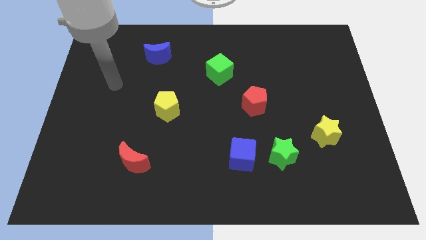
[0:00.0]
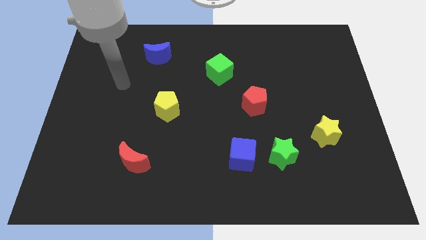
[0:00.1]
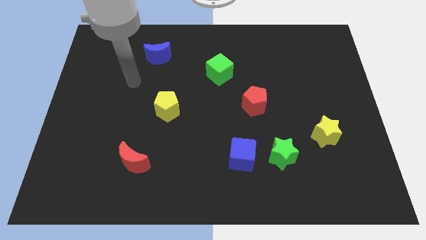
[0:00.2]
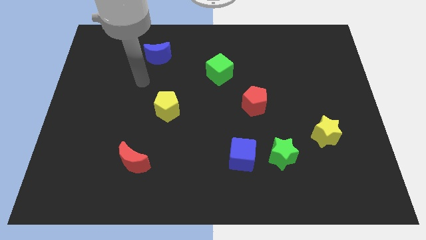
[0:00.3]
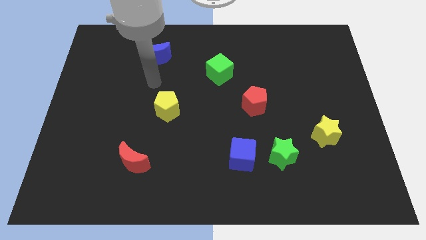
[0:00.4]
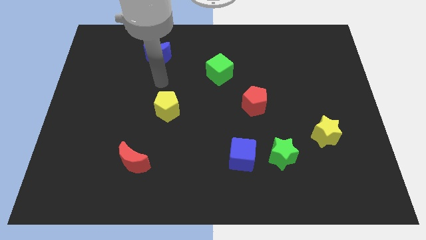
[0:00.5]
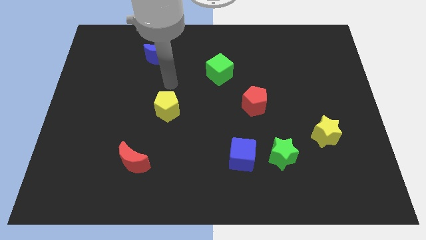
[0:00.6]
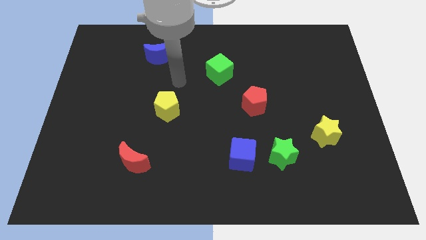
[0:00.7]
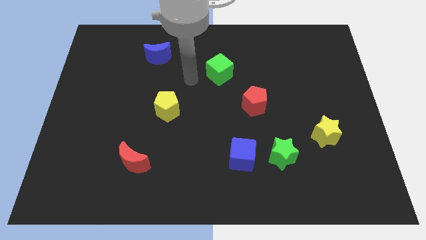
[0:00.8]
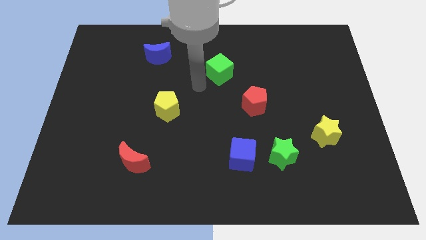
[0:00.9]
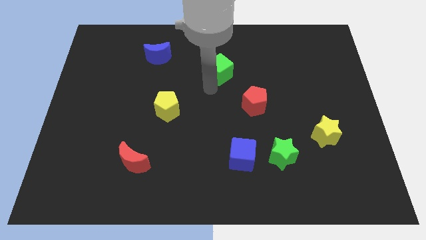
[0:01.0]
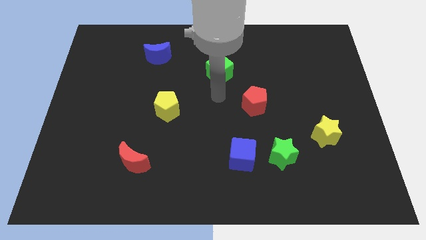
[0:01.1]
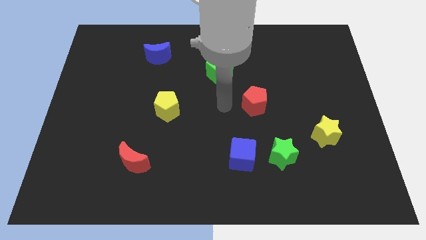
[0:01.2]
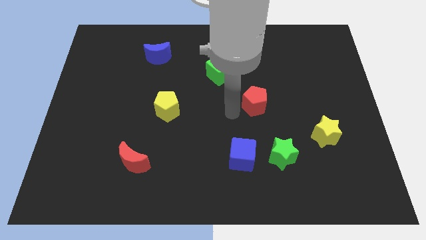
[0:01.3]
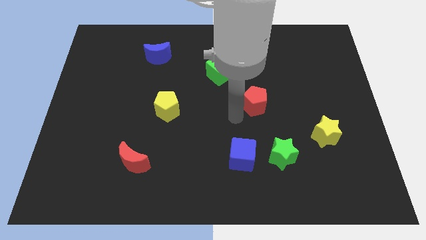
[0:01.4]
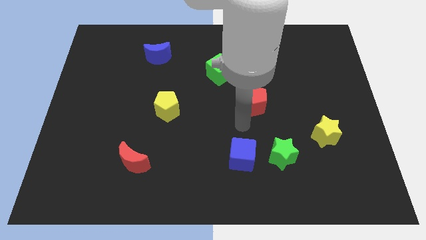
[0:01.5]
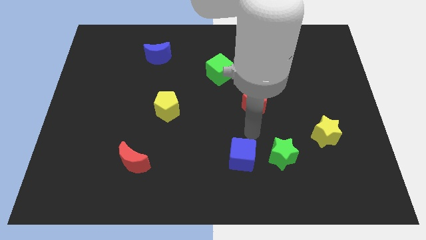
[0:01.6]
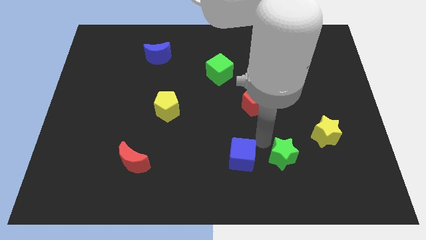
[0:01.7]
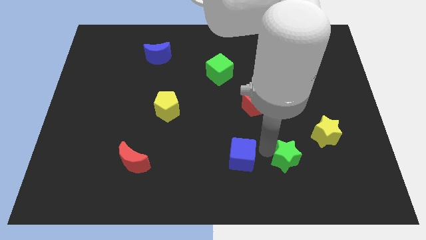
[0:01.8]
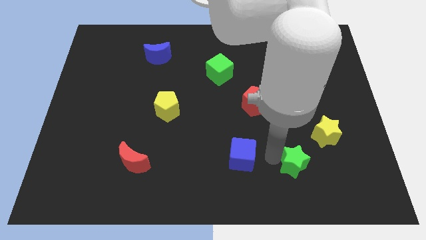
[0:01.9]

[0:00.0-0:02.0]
pull the blue cube apart from the green star

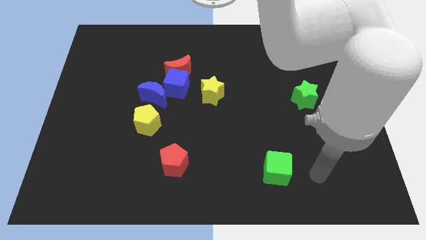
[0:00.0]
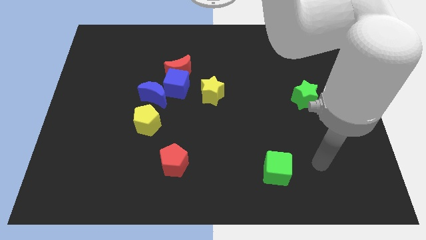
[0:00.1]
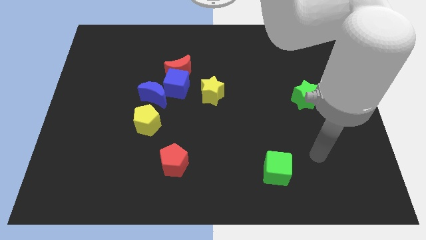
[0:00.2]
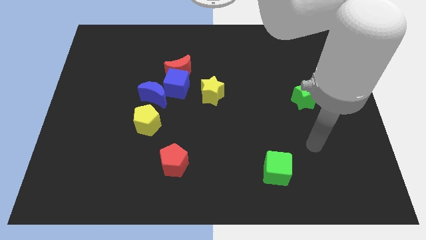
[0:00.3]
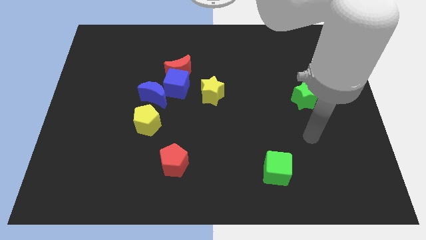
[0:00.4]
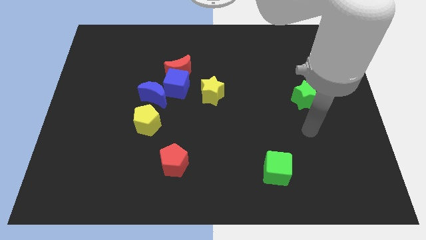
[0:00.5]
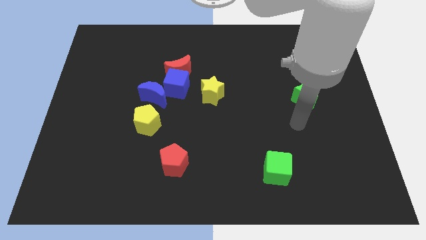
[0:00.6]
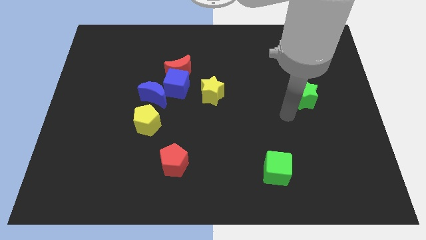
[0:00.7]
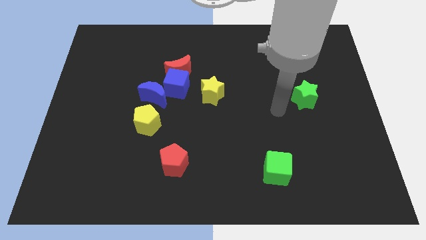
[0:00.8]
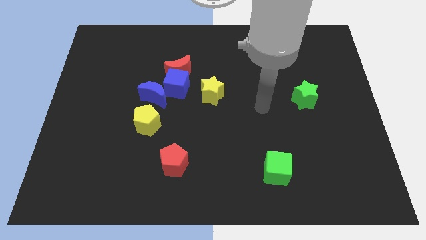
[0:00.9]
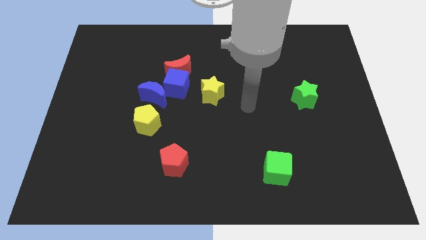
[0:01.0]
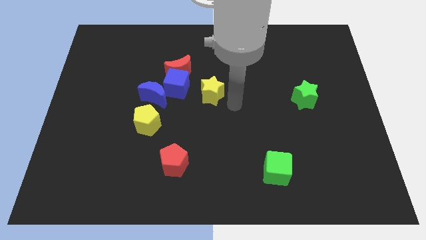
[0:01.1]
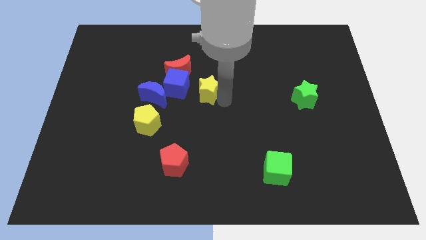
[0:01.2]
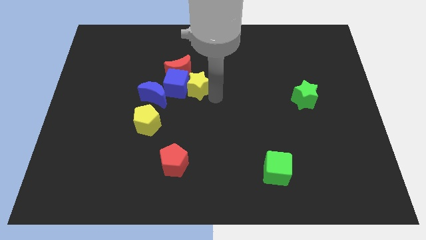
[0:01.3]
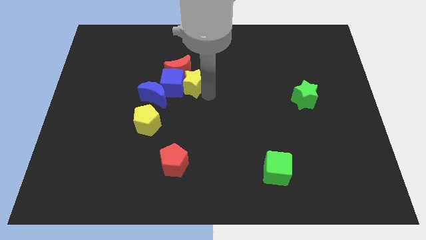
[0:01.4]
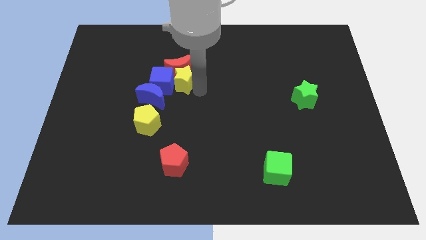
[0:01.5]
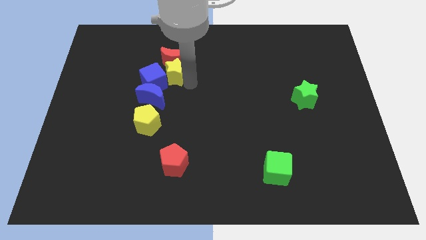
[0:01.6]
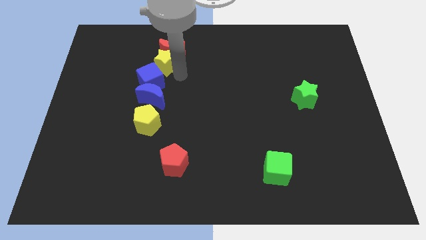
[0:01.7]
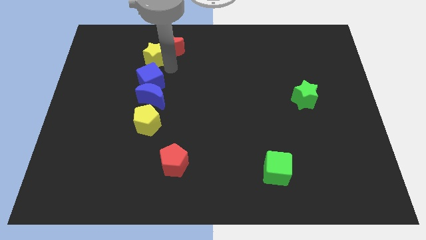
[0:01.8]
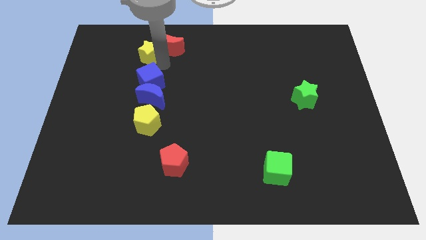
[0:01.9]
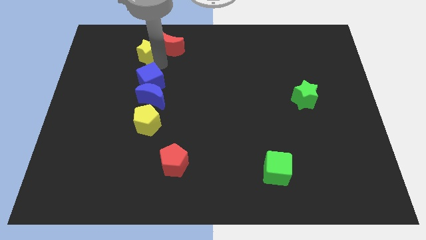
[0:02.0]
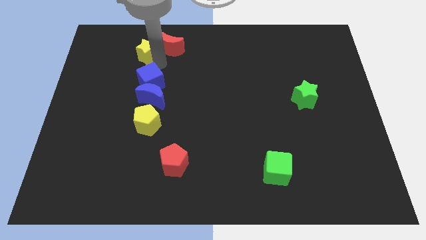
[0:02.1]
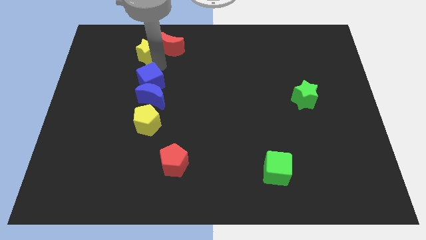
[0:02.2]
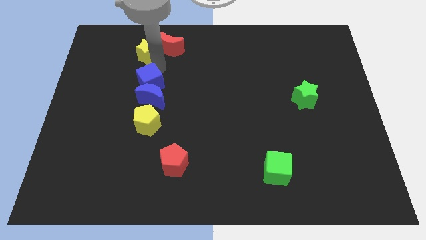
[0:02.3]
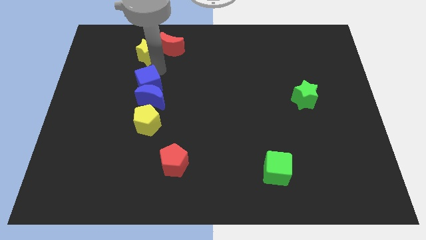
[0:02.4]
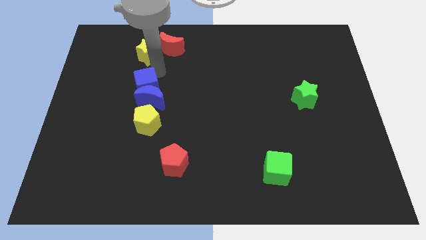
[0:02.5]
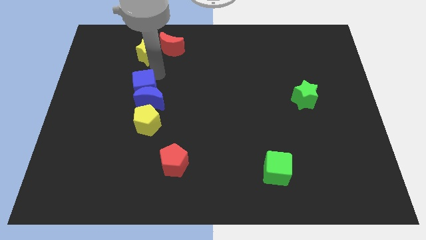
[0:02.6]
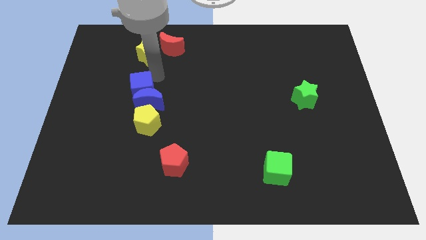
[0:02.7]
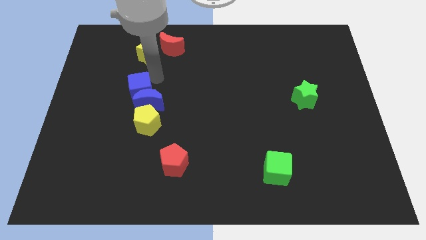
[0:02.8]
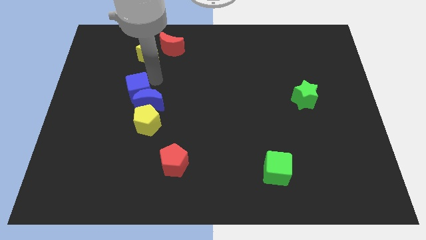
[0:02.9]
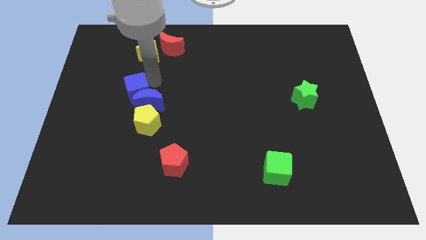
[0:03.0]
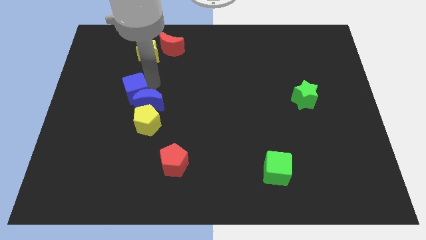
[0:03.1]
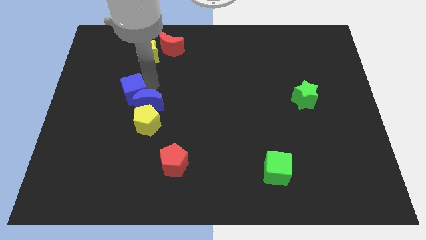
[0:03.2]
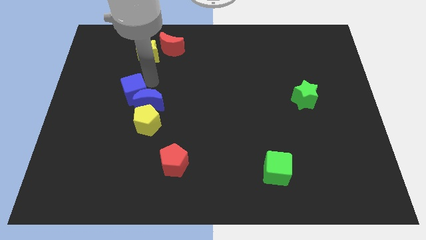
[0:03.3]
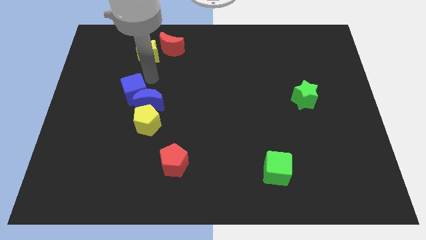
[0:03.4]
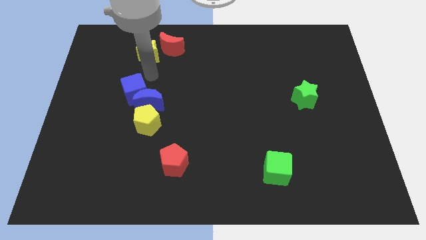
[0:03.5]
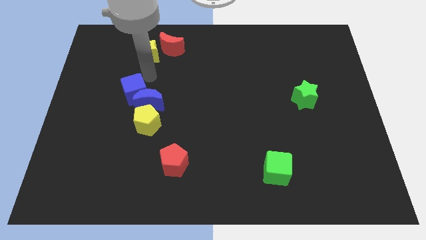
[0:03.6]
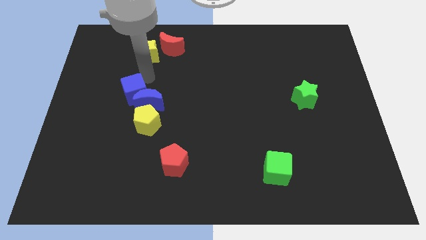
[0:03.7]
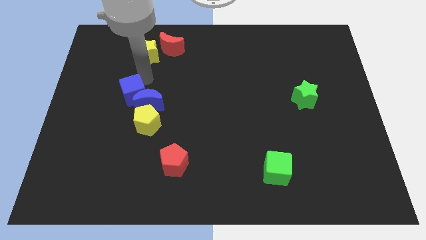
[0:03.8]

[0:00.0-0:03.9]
move the blue cube away from the group of blocks

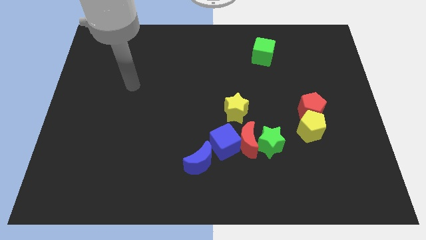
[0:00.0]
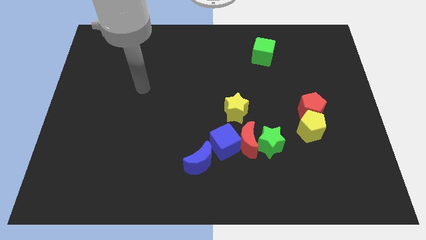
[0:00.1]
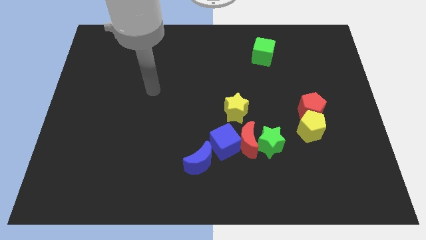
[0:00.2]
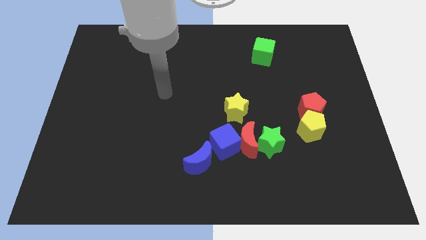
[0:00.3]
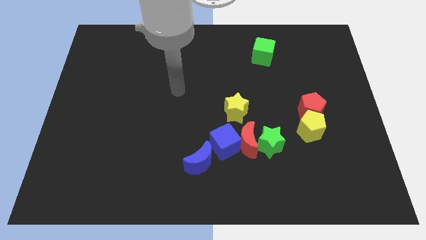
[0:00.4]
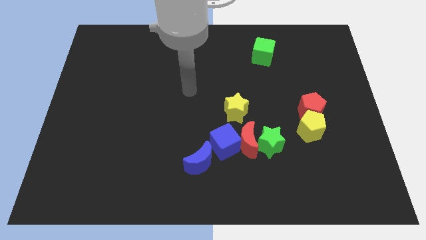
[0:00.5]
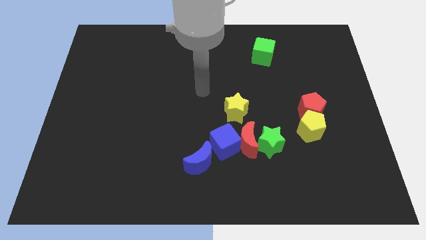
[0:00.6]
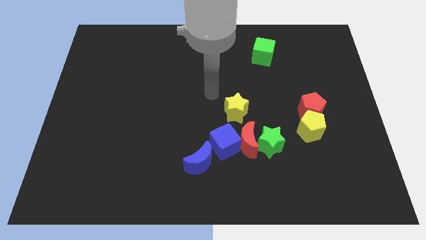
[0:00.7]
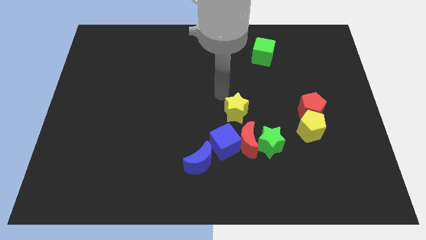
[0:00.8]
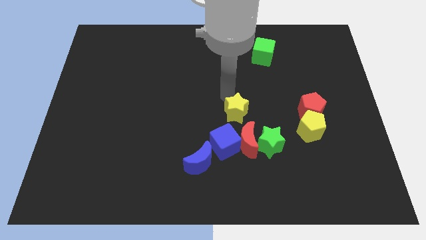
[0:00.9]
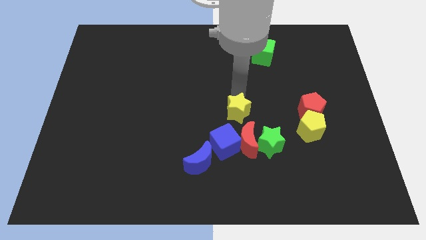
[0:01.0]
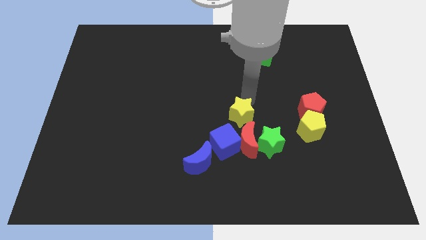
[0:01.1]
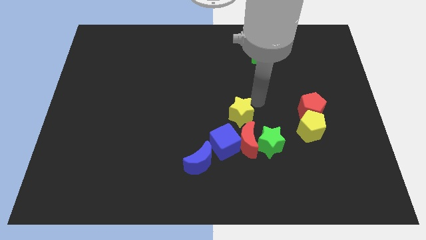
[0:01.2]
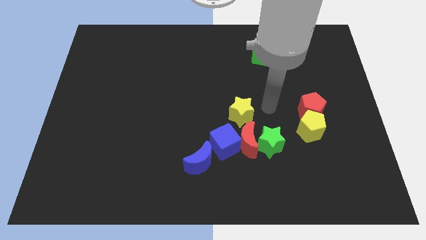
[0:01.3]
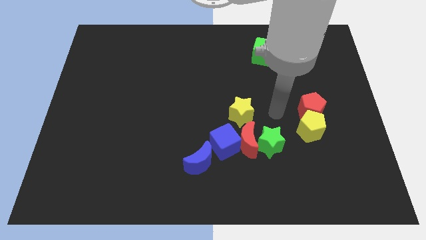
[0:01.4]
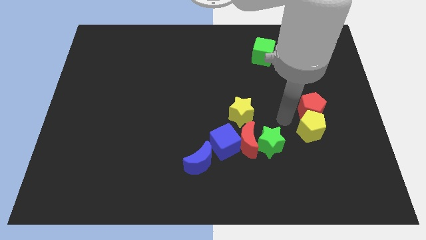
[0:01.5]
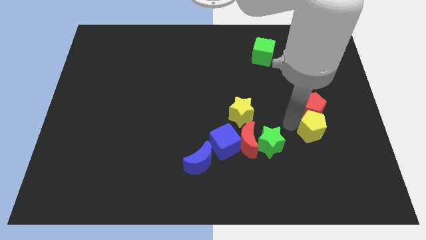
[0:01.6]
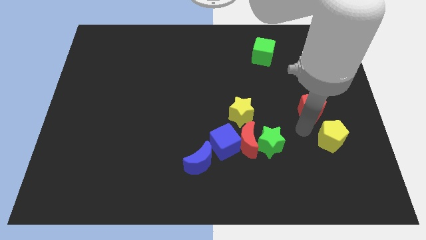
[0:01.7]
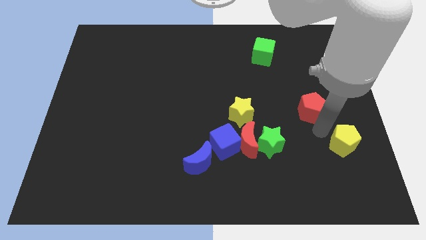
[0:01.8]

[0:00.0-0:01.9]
move the red pentagon away from the yellow pentagon

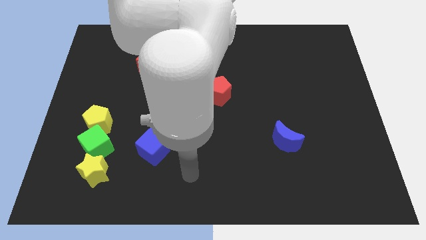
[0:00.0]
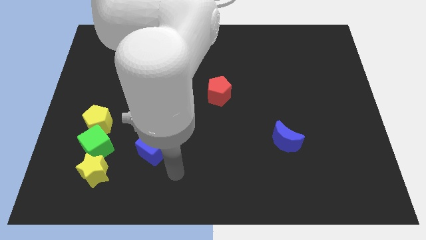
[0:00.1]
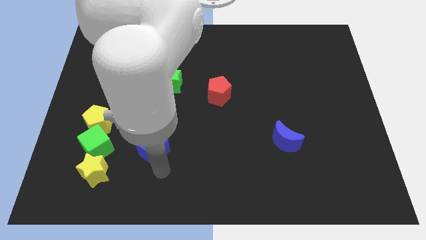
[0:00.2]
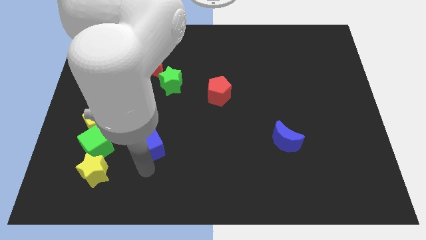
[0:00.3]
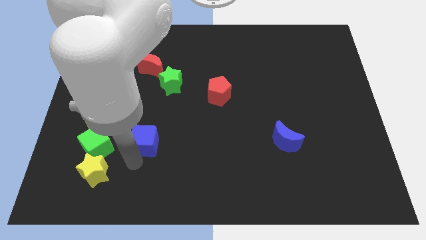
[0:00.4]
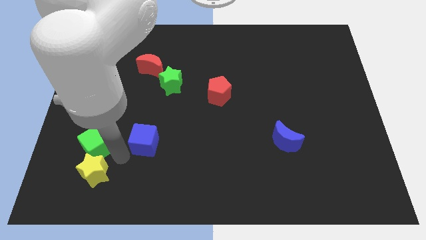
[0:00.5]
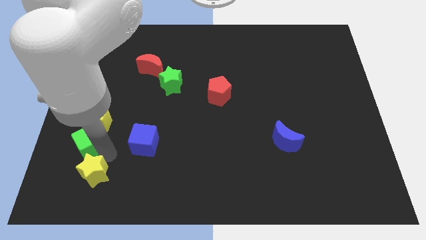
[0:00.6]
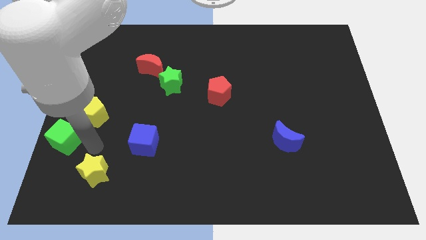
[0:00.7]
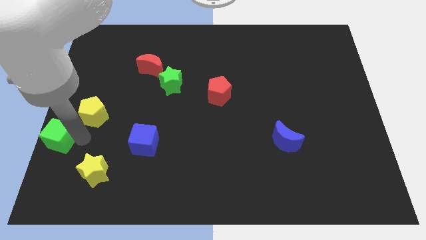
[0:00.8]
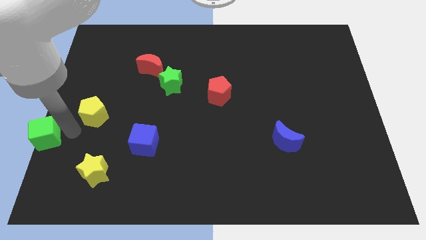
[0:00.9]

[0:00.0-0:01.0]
pull the yellow pentagon apart from the green cube

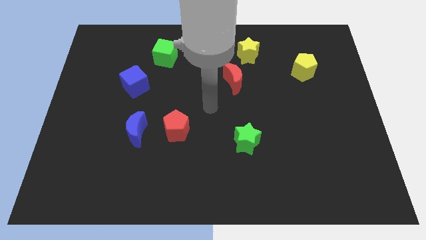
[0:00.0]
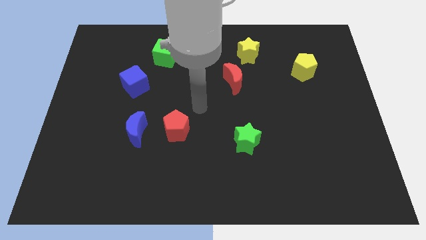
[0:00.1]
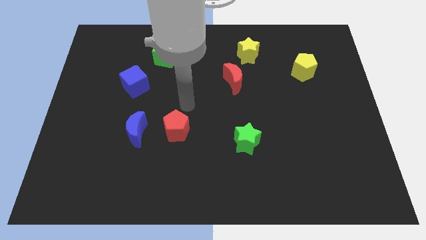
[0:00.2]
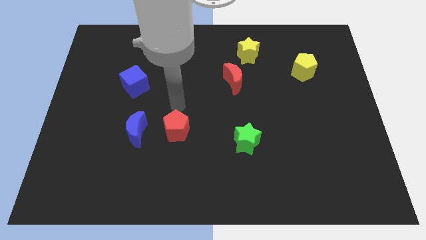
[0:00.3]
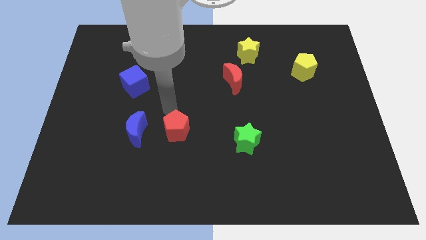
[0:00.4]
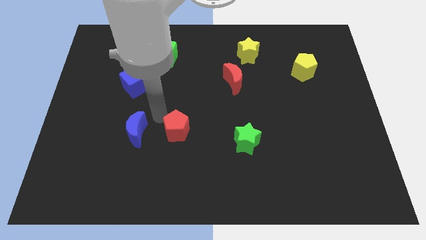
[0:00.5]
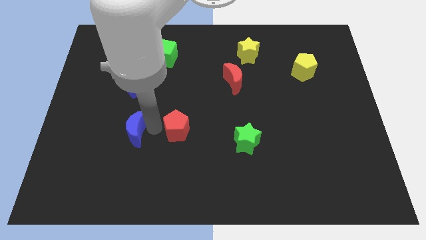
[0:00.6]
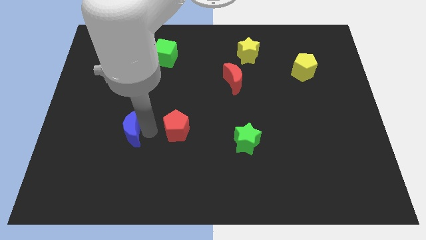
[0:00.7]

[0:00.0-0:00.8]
separate the red pentagon from the blue moon
